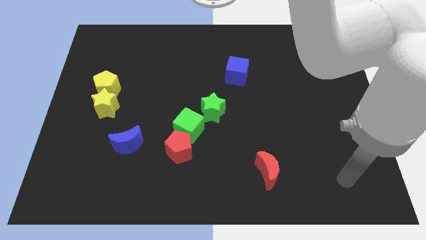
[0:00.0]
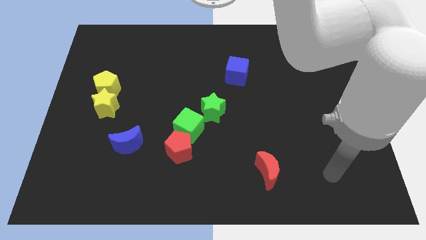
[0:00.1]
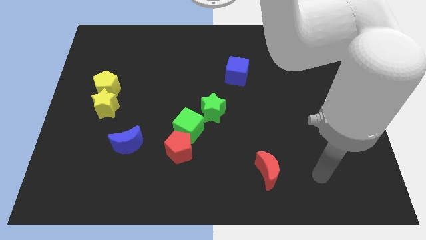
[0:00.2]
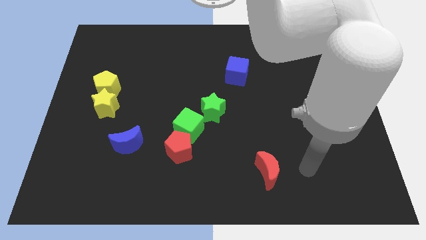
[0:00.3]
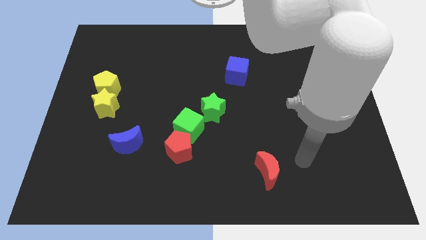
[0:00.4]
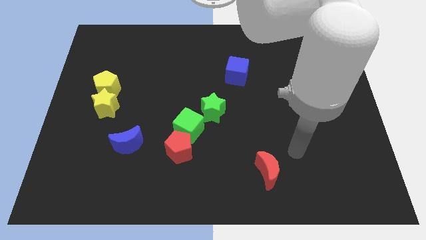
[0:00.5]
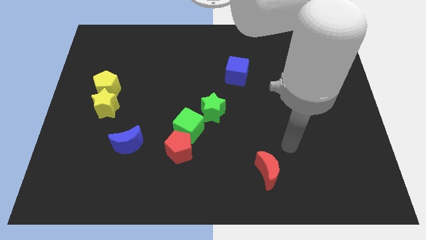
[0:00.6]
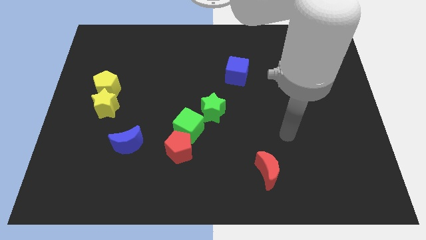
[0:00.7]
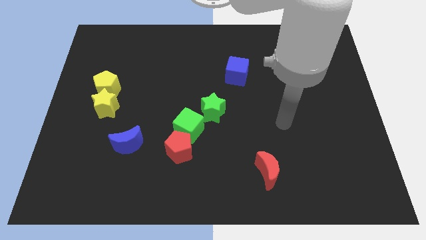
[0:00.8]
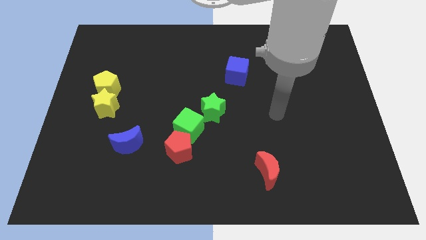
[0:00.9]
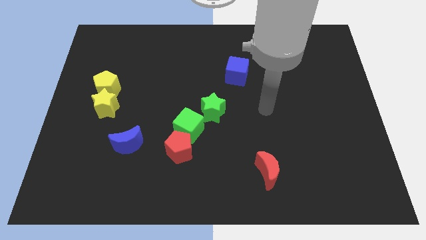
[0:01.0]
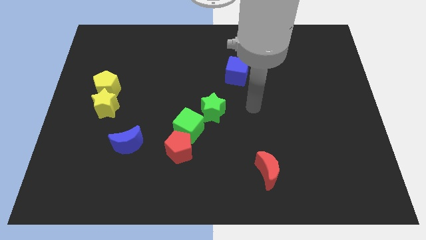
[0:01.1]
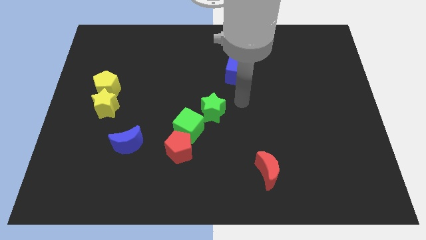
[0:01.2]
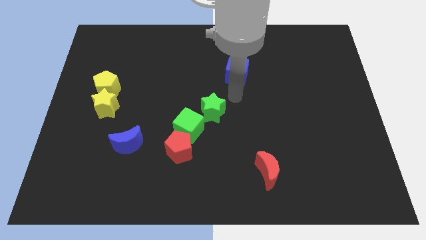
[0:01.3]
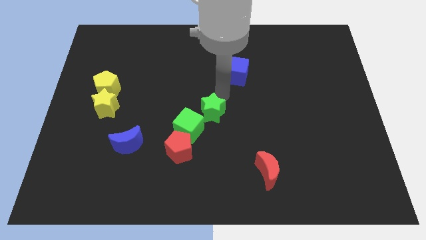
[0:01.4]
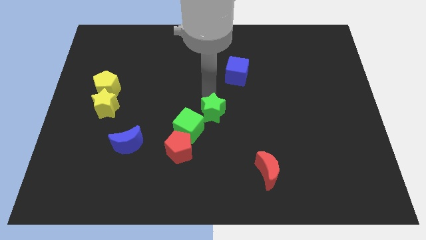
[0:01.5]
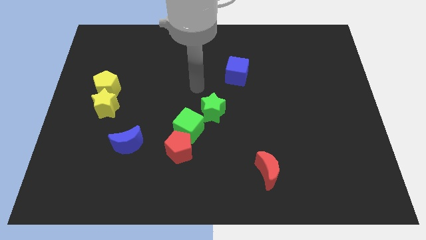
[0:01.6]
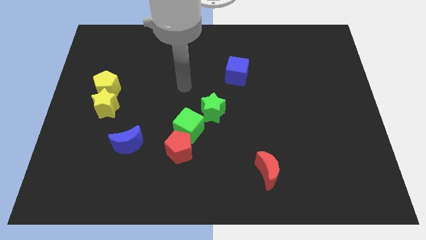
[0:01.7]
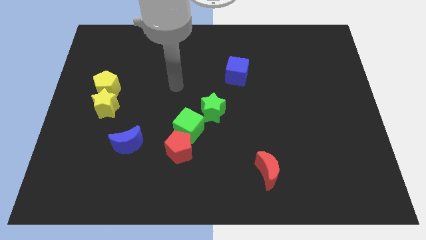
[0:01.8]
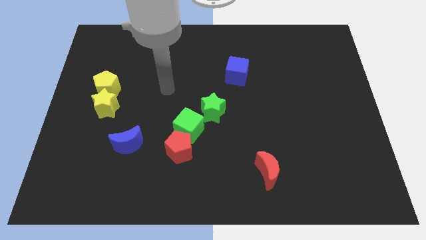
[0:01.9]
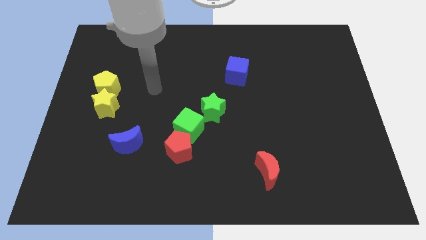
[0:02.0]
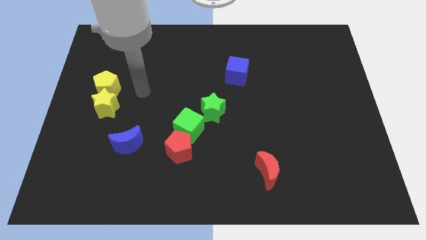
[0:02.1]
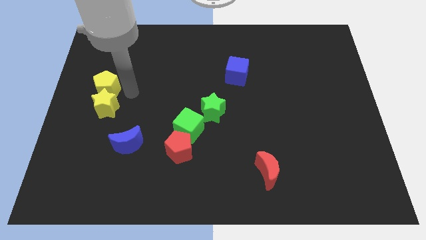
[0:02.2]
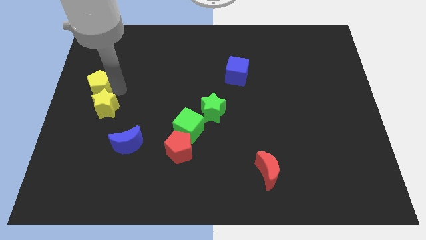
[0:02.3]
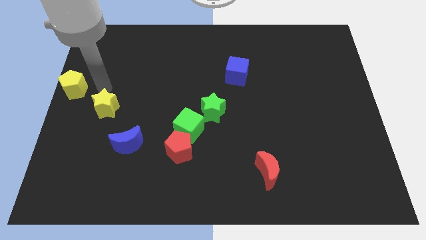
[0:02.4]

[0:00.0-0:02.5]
separate the yellow star from the yellow pentagon

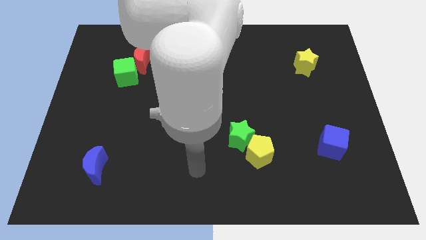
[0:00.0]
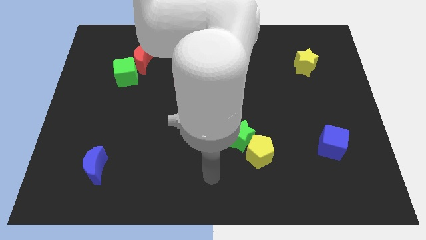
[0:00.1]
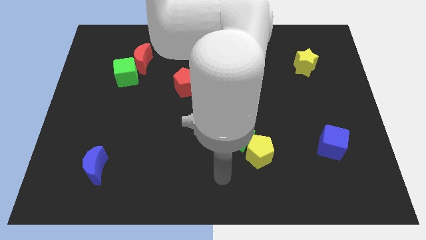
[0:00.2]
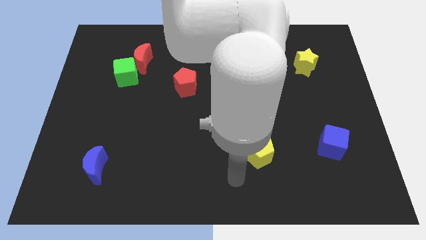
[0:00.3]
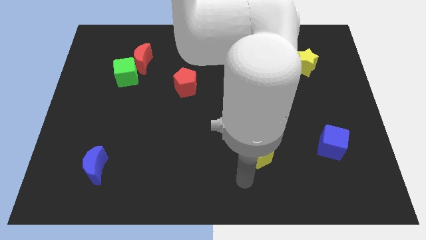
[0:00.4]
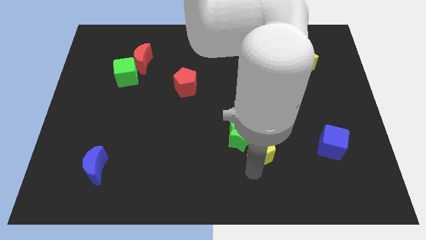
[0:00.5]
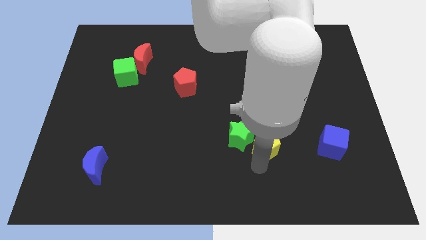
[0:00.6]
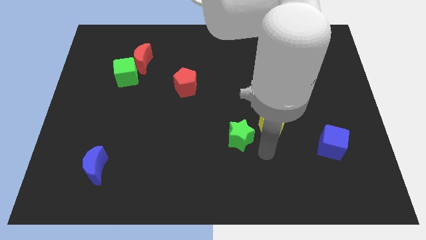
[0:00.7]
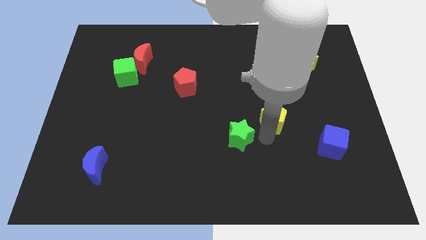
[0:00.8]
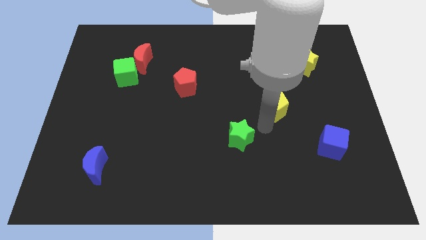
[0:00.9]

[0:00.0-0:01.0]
move the green star away from the yellow pentagon

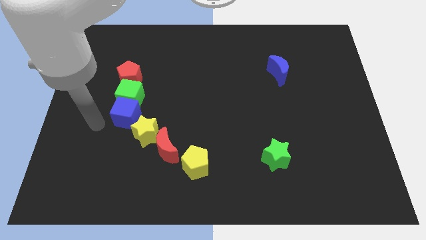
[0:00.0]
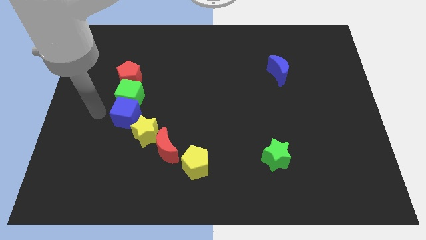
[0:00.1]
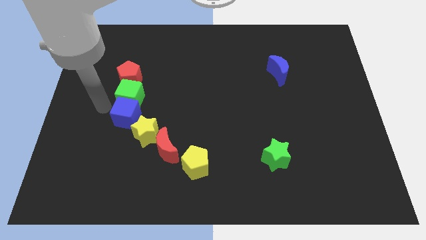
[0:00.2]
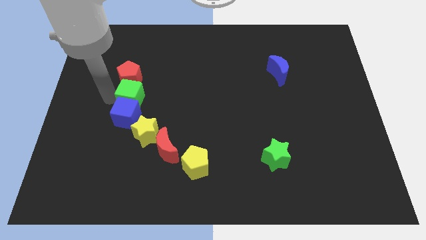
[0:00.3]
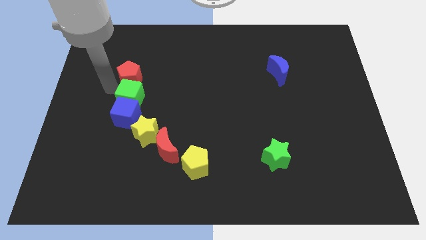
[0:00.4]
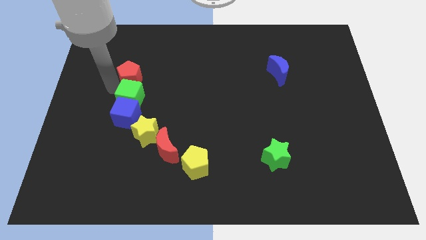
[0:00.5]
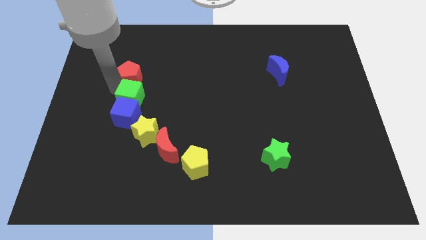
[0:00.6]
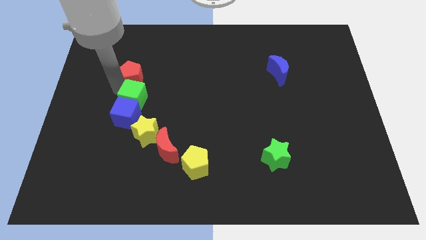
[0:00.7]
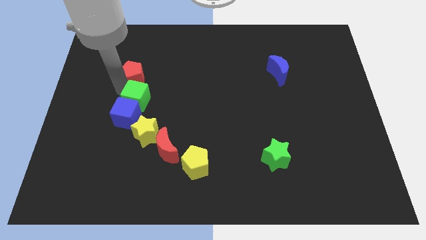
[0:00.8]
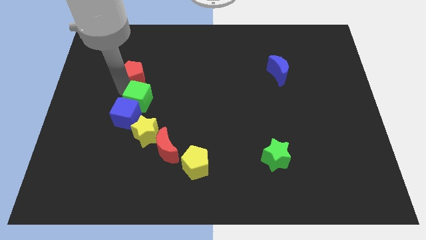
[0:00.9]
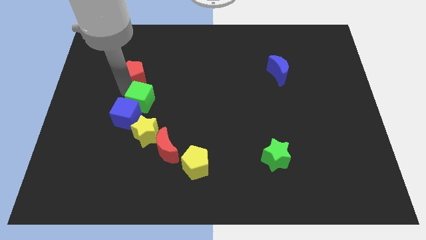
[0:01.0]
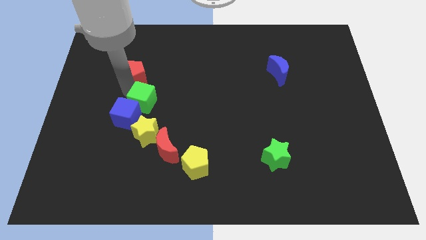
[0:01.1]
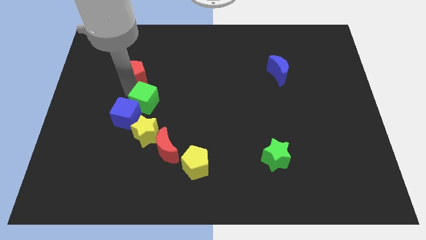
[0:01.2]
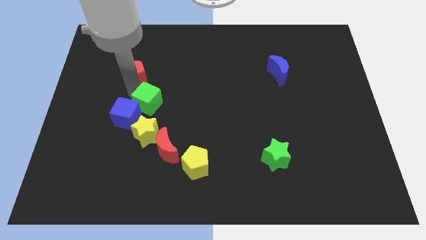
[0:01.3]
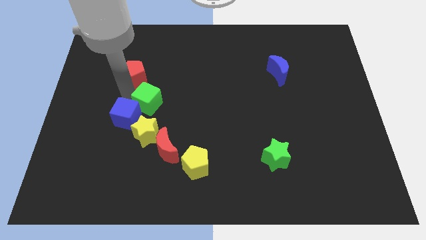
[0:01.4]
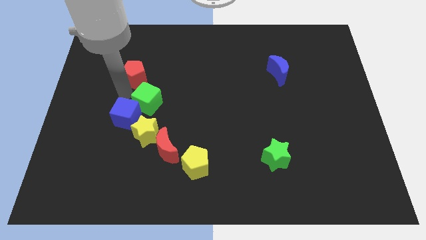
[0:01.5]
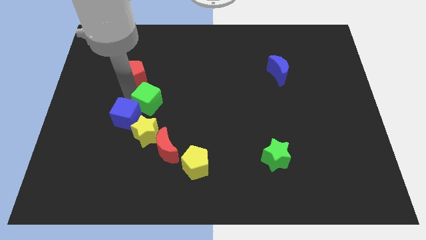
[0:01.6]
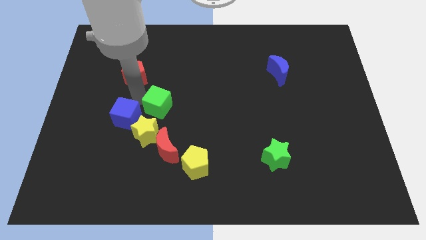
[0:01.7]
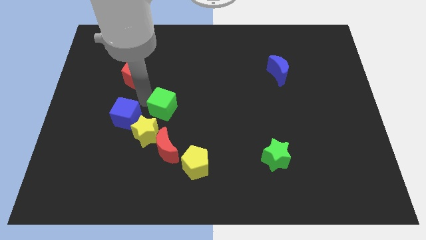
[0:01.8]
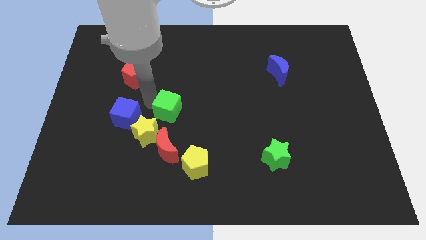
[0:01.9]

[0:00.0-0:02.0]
separate the green cube from the blue cube and red pentagon

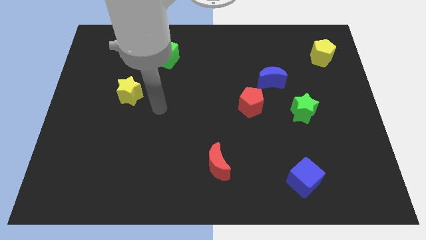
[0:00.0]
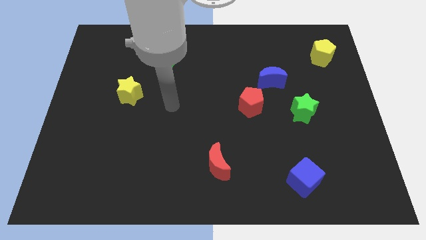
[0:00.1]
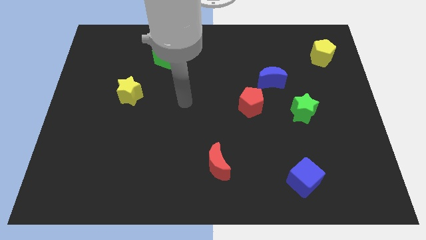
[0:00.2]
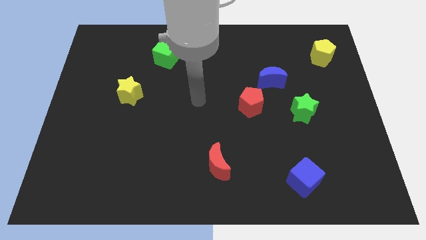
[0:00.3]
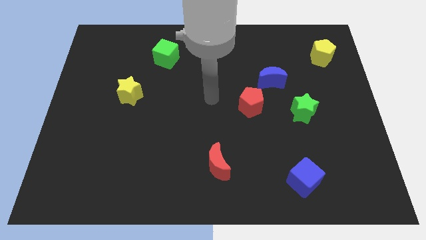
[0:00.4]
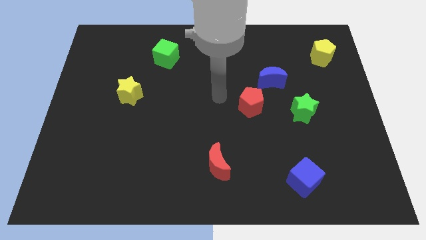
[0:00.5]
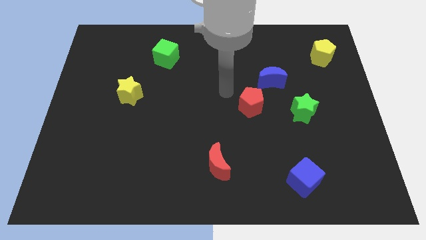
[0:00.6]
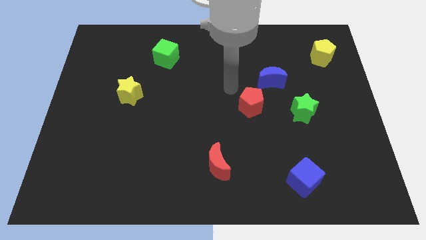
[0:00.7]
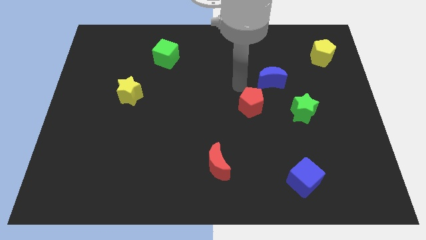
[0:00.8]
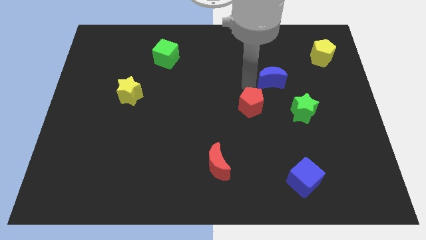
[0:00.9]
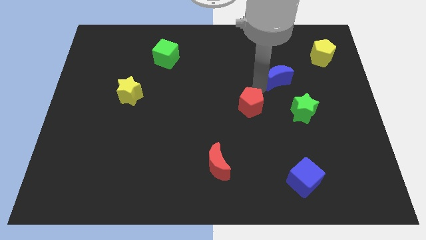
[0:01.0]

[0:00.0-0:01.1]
separate the red pentagon from the blue moon

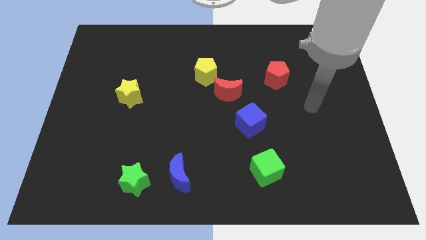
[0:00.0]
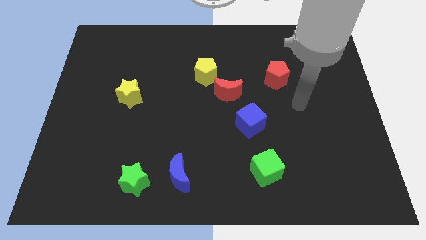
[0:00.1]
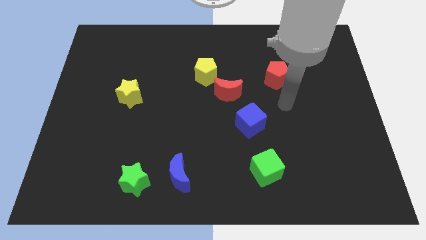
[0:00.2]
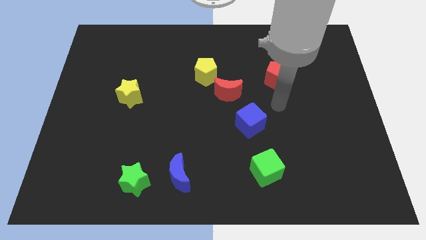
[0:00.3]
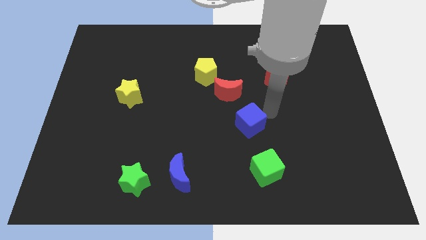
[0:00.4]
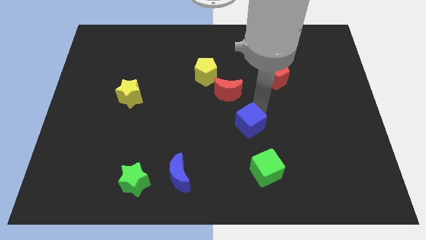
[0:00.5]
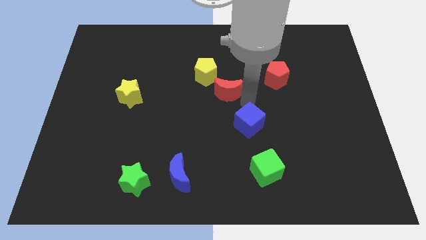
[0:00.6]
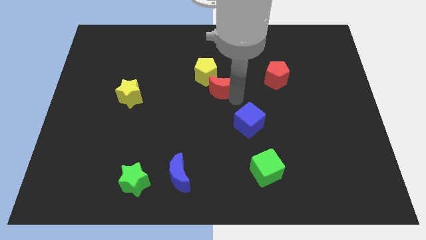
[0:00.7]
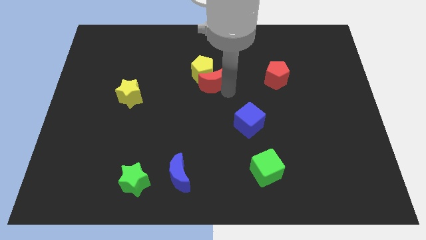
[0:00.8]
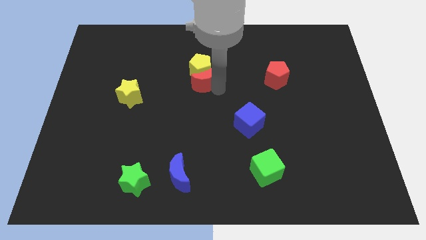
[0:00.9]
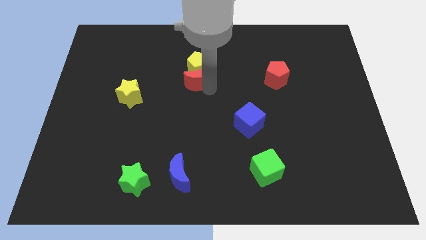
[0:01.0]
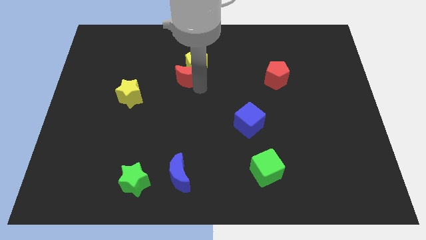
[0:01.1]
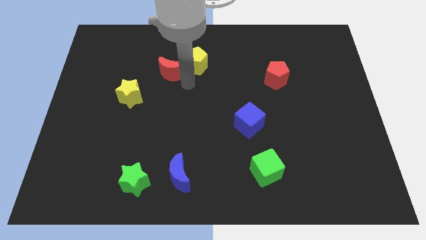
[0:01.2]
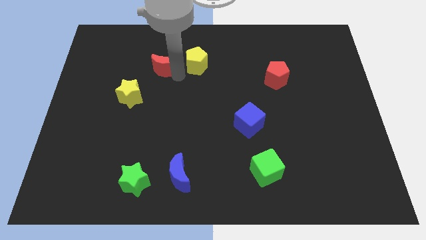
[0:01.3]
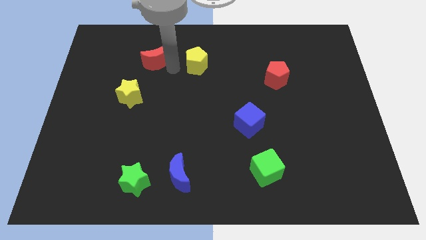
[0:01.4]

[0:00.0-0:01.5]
move the yellow pentagon away from the red moon

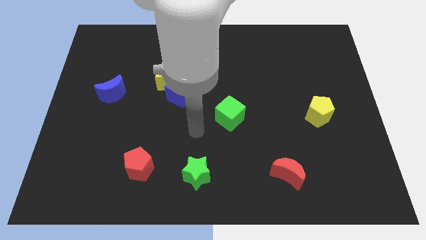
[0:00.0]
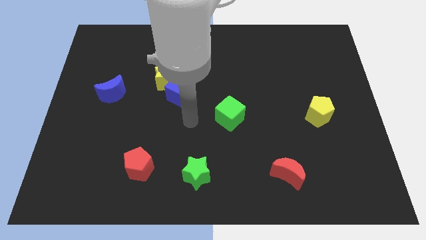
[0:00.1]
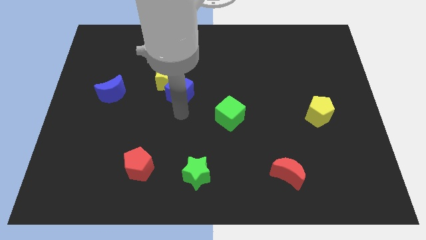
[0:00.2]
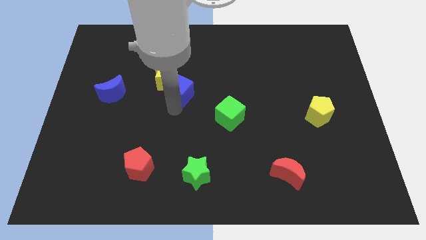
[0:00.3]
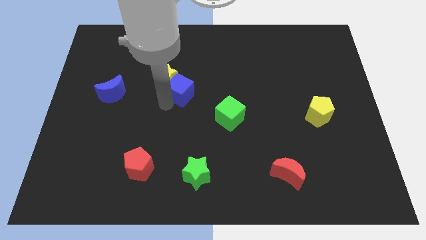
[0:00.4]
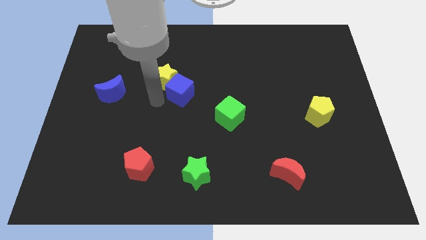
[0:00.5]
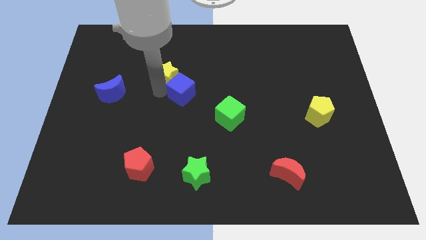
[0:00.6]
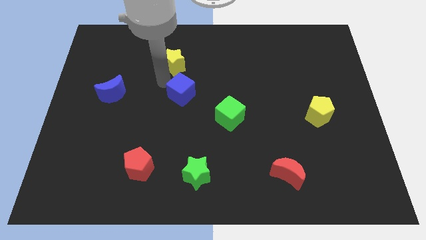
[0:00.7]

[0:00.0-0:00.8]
move the blue cube away from the yellow star

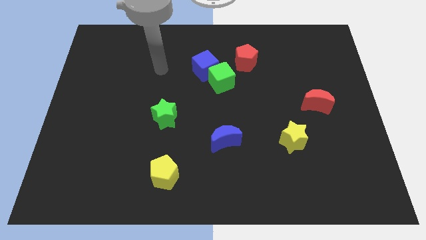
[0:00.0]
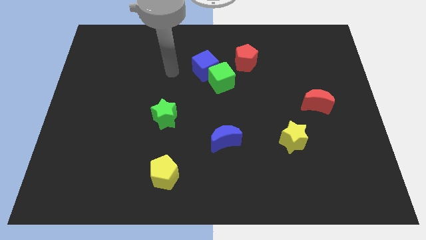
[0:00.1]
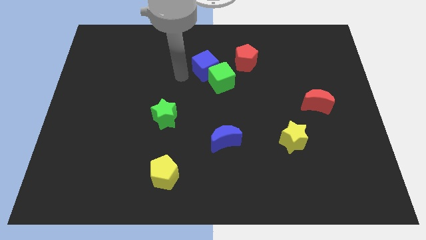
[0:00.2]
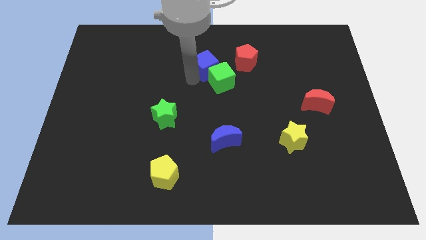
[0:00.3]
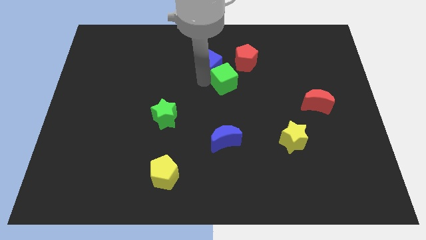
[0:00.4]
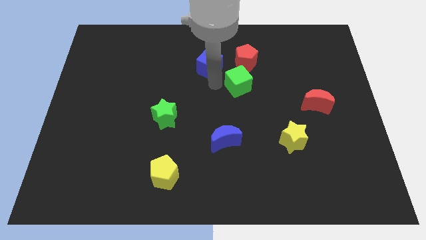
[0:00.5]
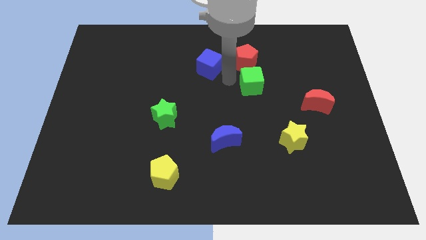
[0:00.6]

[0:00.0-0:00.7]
pull the blue cube apart from the green cube
